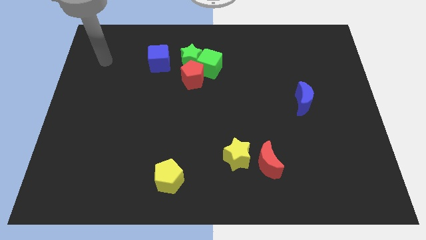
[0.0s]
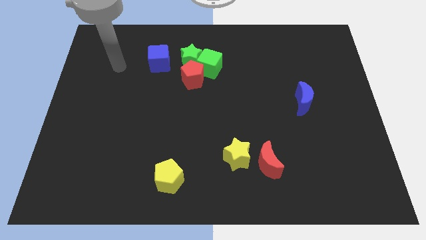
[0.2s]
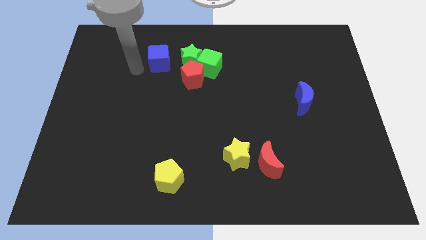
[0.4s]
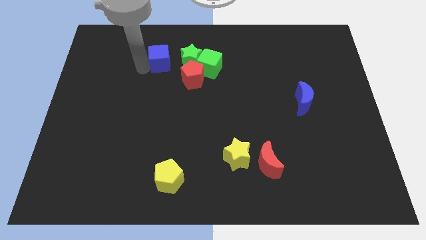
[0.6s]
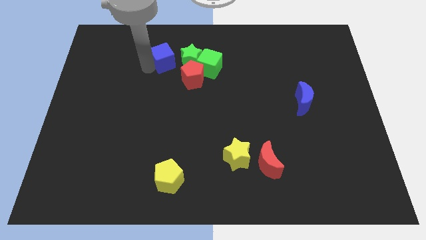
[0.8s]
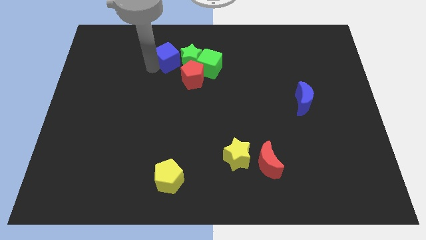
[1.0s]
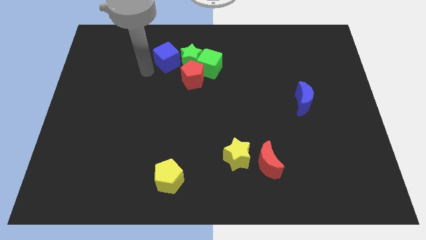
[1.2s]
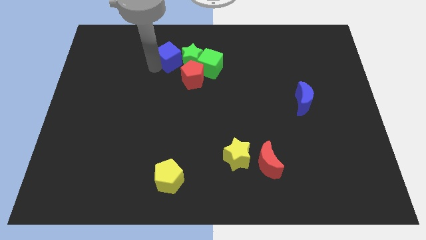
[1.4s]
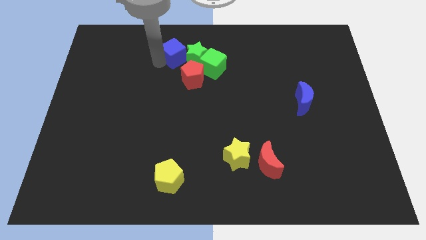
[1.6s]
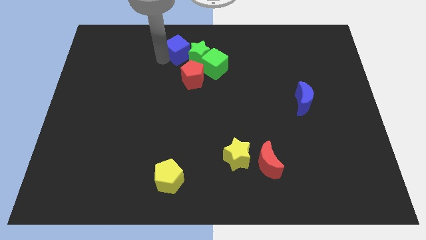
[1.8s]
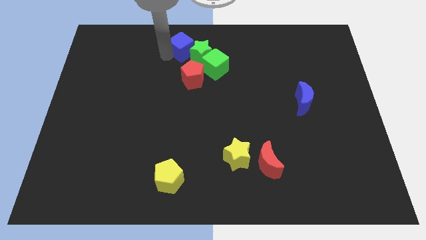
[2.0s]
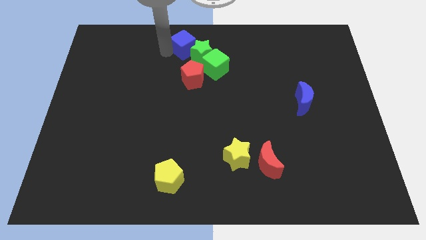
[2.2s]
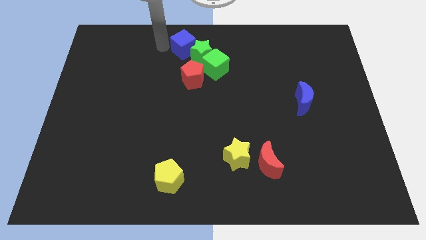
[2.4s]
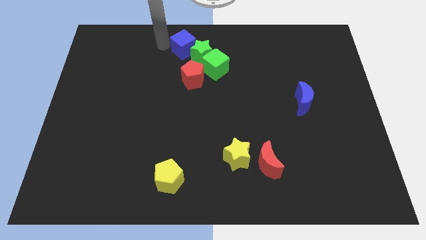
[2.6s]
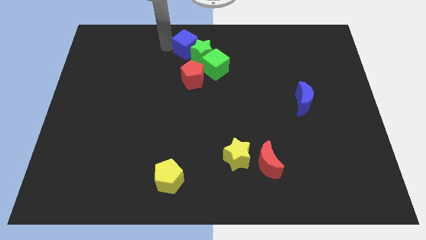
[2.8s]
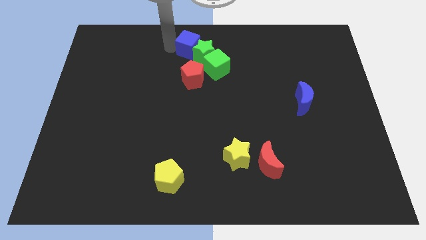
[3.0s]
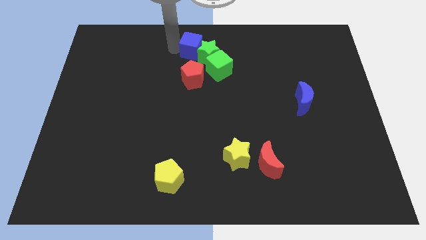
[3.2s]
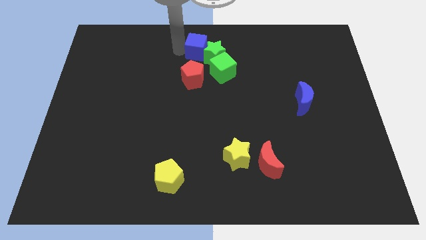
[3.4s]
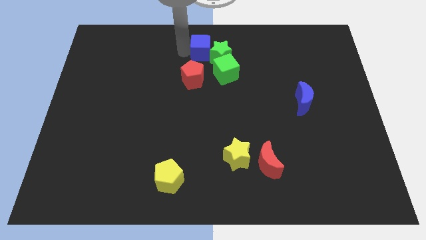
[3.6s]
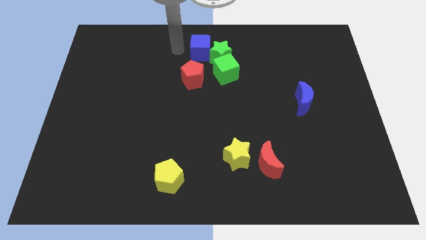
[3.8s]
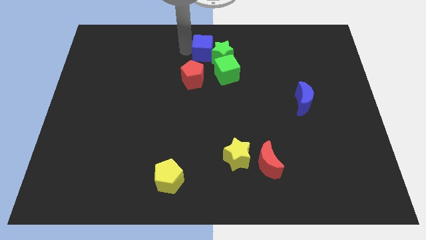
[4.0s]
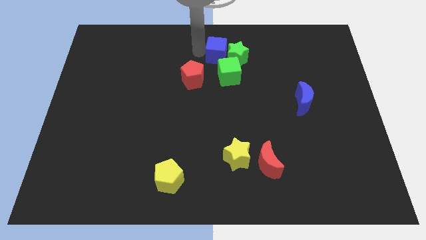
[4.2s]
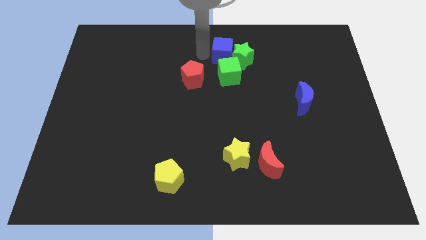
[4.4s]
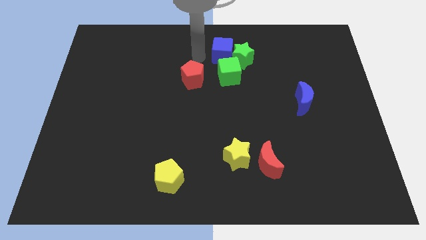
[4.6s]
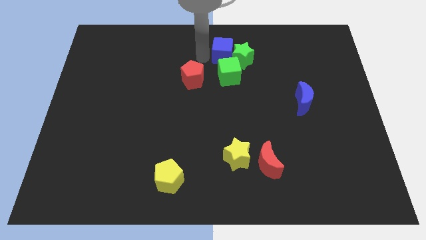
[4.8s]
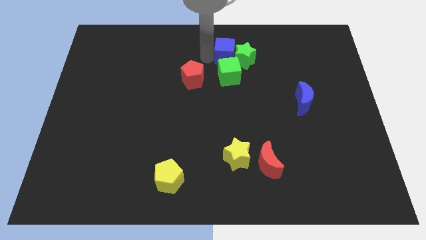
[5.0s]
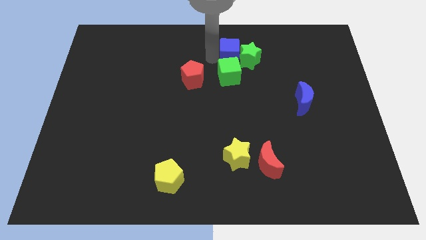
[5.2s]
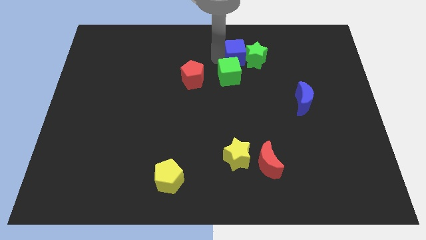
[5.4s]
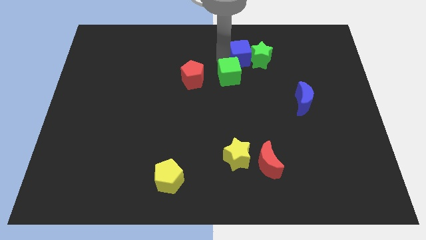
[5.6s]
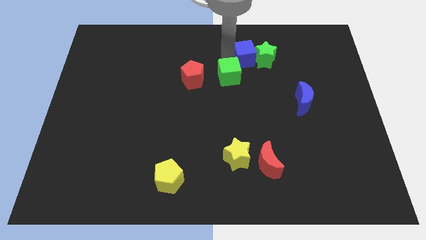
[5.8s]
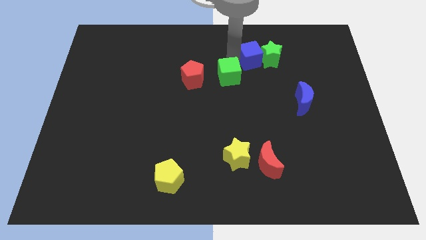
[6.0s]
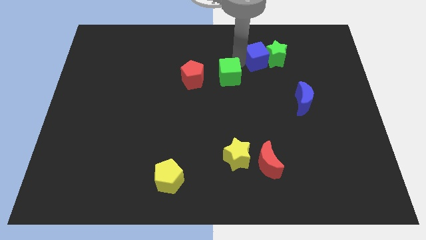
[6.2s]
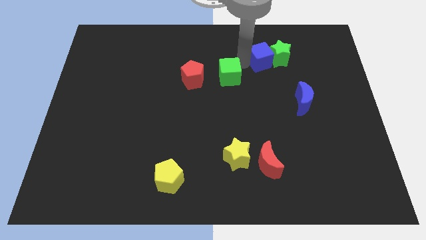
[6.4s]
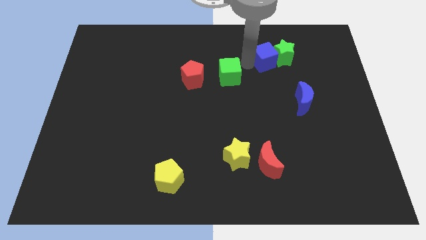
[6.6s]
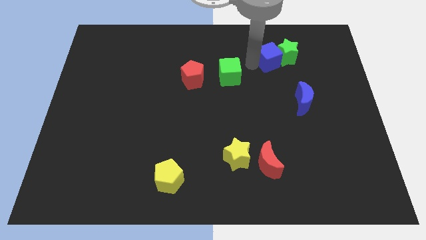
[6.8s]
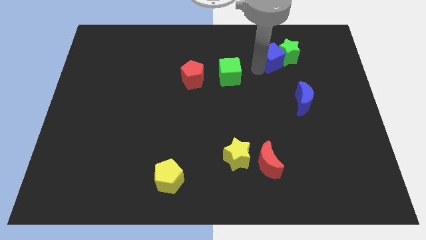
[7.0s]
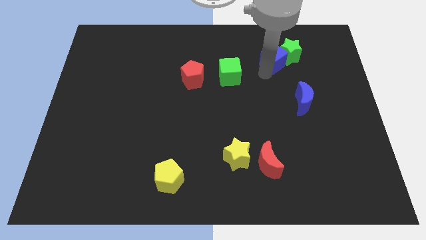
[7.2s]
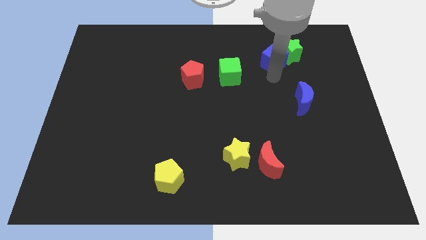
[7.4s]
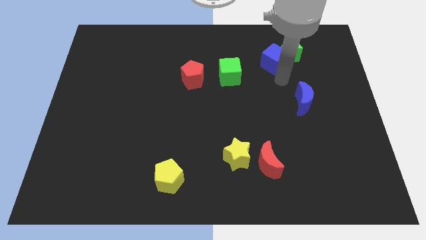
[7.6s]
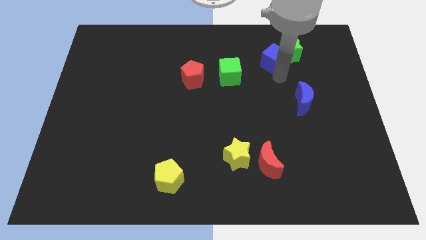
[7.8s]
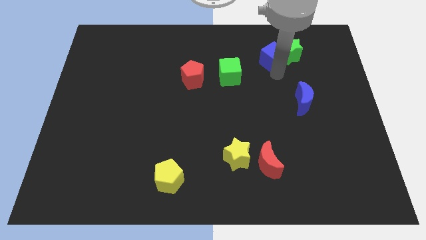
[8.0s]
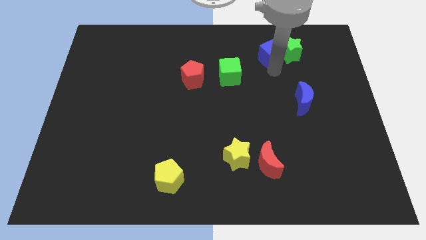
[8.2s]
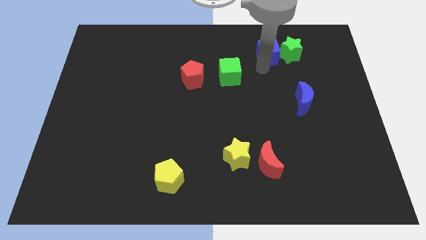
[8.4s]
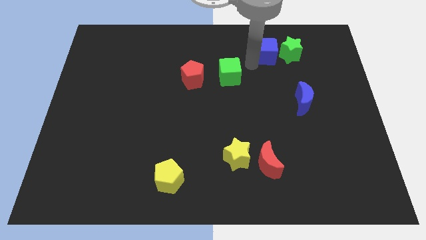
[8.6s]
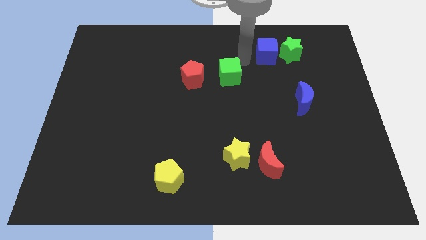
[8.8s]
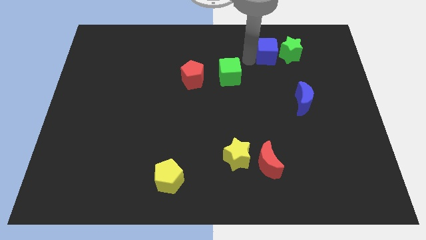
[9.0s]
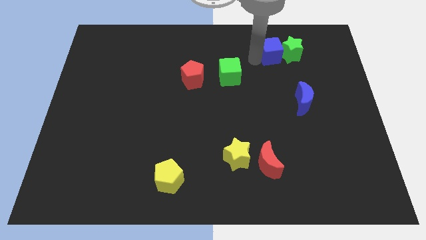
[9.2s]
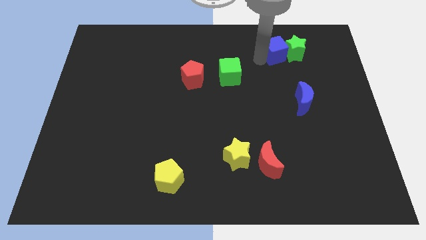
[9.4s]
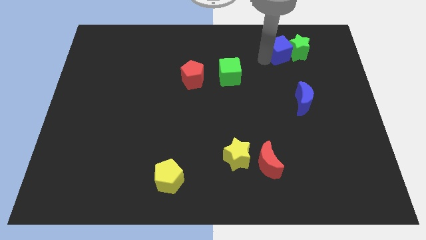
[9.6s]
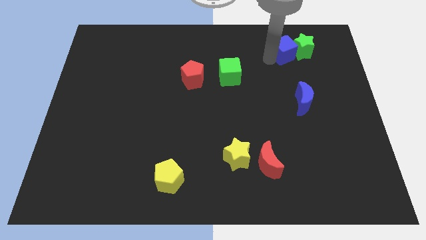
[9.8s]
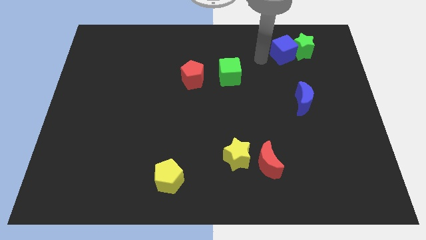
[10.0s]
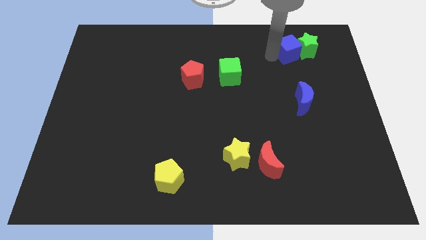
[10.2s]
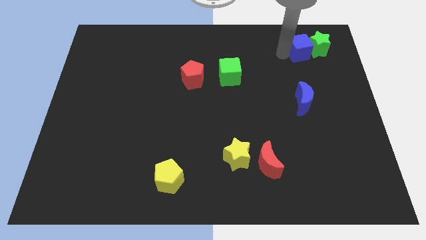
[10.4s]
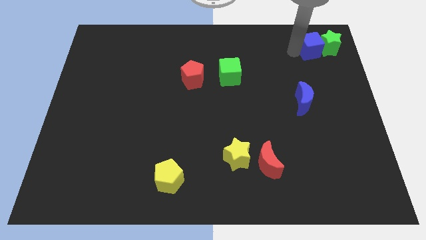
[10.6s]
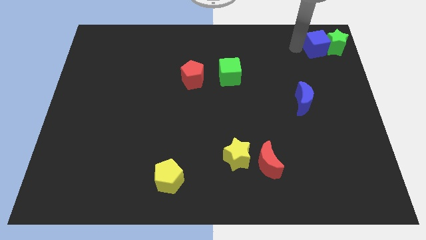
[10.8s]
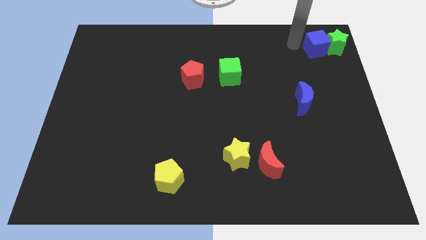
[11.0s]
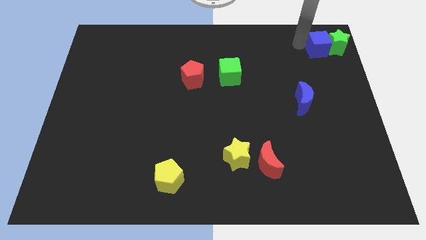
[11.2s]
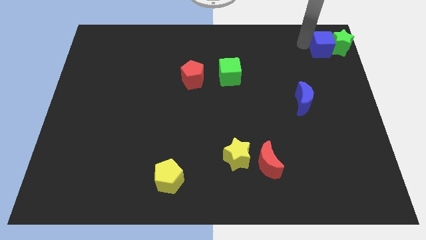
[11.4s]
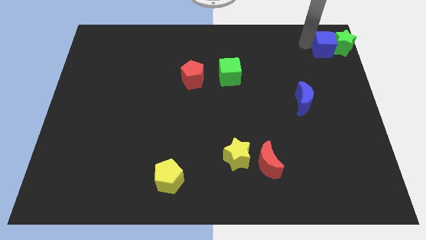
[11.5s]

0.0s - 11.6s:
push the blue cube to the top right of the board

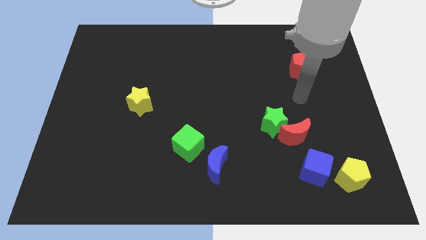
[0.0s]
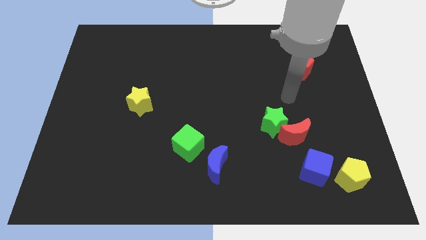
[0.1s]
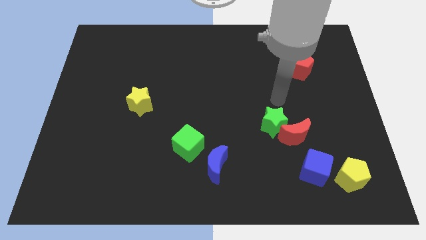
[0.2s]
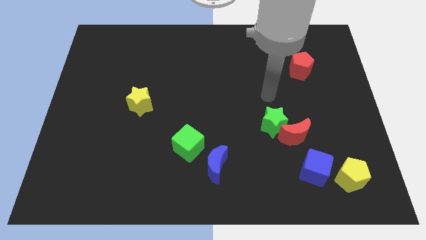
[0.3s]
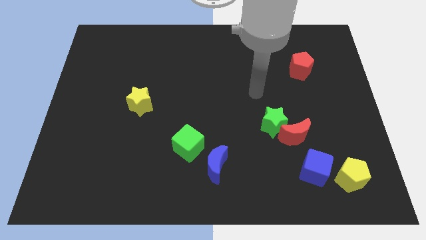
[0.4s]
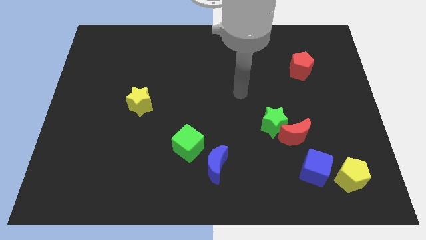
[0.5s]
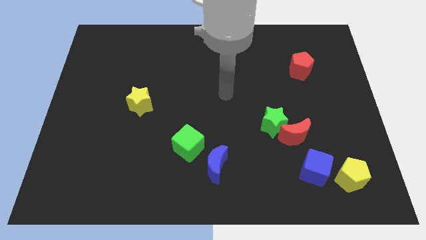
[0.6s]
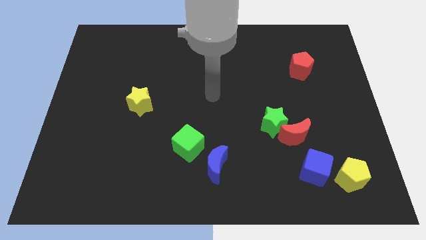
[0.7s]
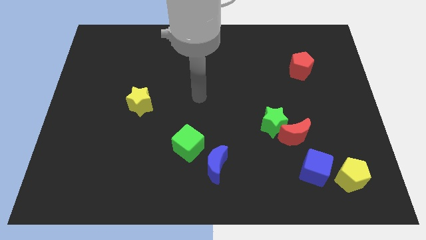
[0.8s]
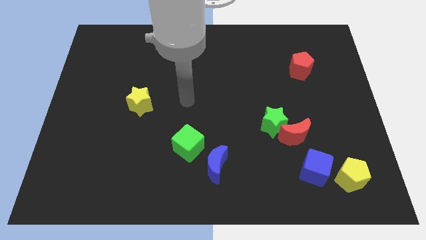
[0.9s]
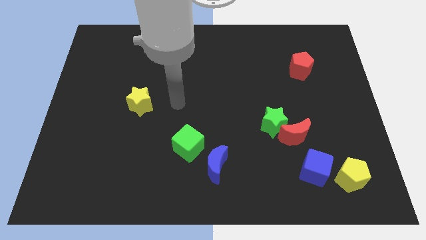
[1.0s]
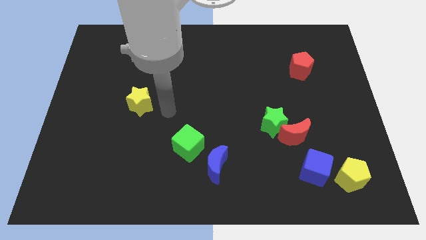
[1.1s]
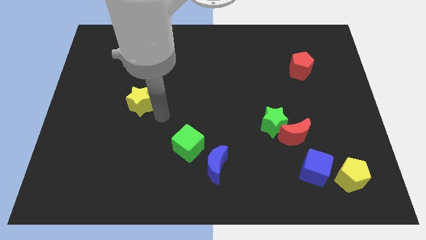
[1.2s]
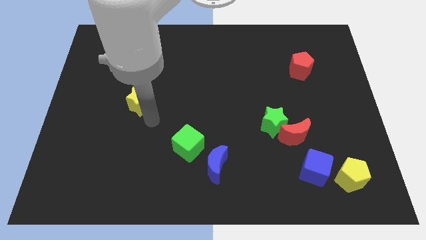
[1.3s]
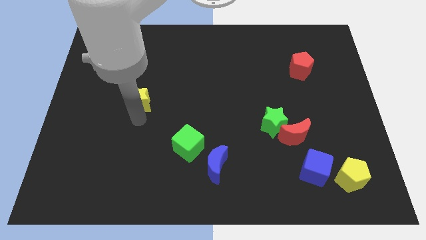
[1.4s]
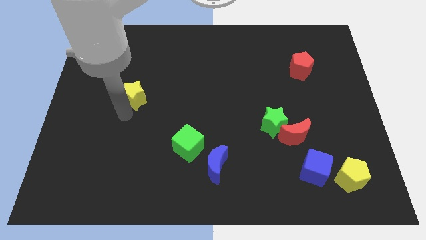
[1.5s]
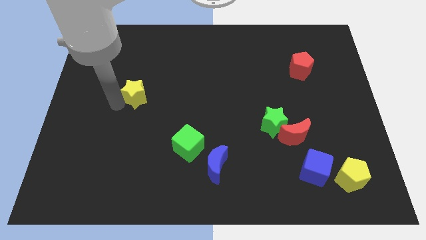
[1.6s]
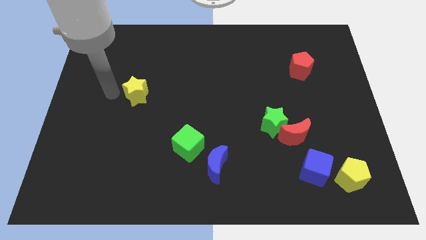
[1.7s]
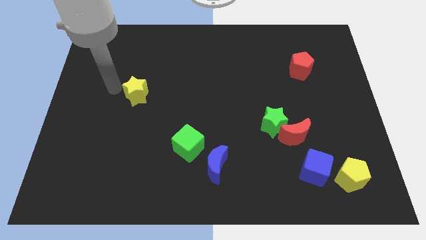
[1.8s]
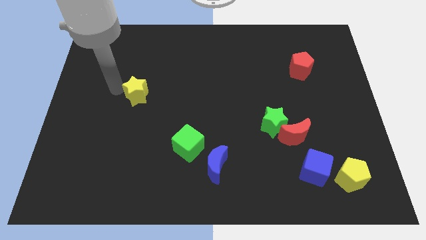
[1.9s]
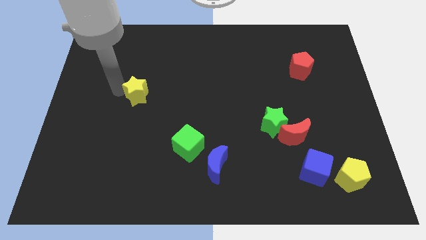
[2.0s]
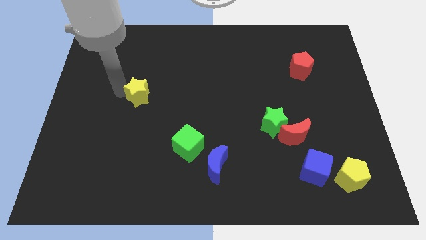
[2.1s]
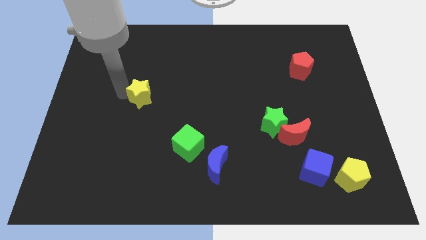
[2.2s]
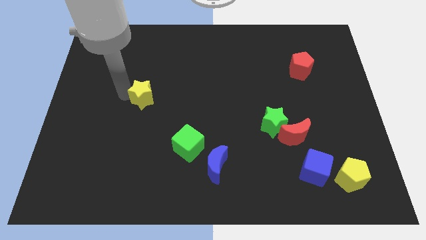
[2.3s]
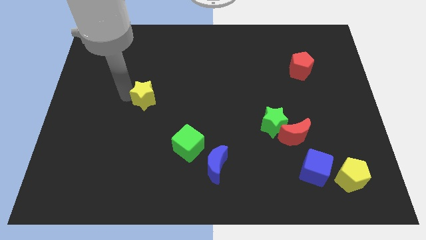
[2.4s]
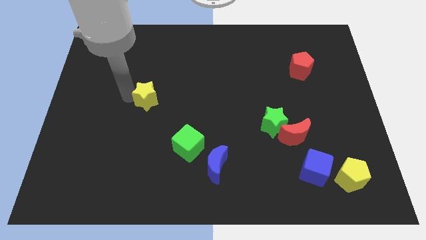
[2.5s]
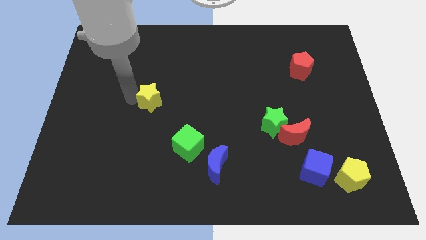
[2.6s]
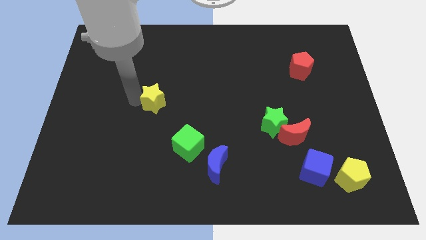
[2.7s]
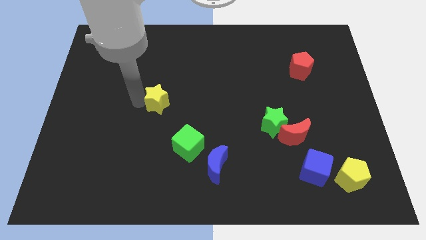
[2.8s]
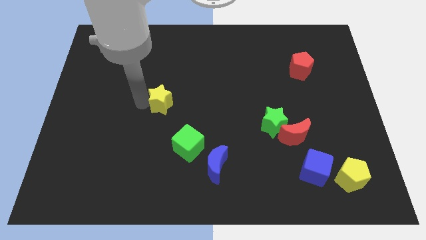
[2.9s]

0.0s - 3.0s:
push the yellow star to the middle
